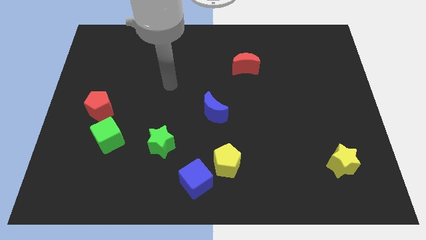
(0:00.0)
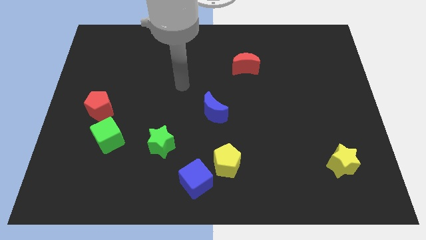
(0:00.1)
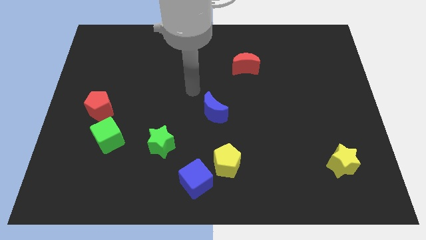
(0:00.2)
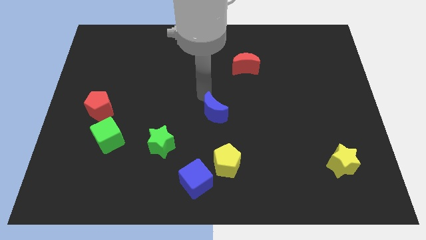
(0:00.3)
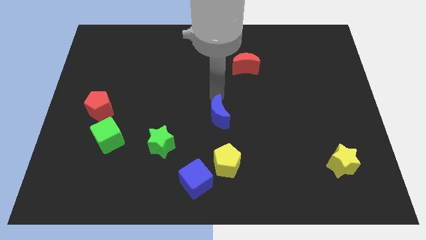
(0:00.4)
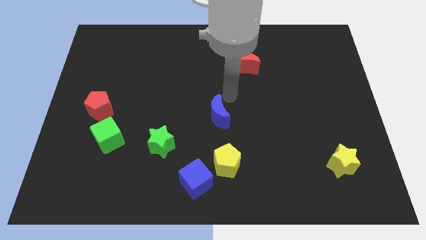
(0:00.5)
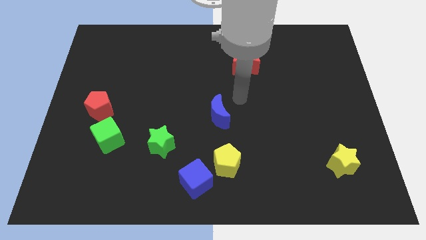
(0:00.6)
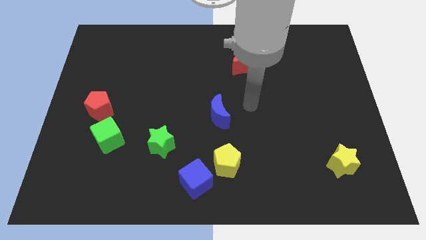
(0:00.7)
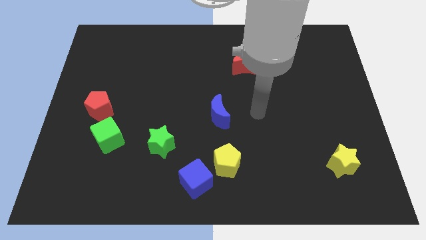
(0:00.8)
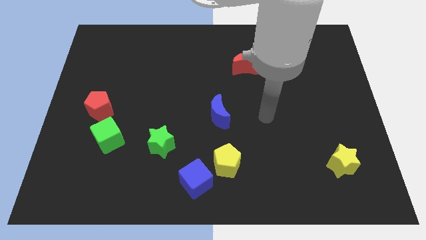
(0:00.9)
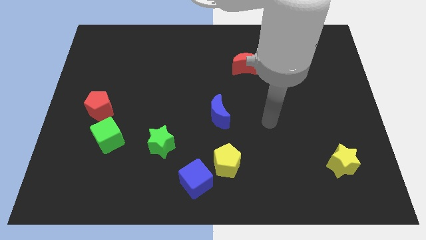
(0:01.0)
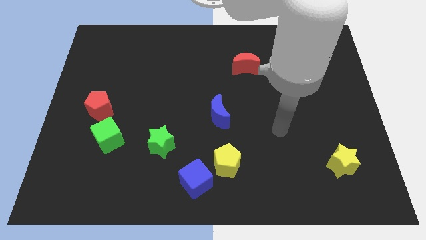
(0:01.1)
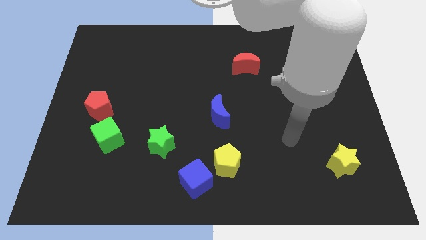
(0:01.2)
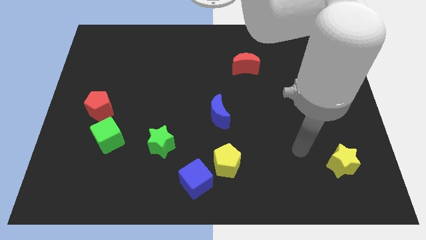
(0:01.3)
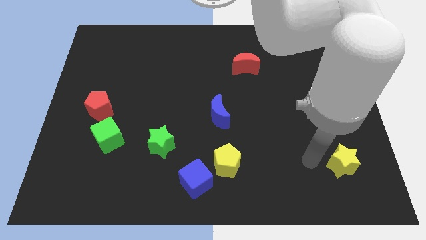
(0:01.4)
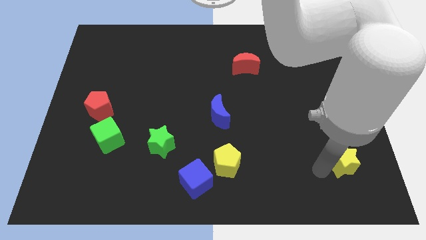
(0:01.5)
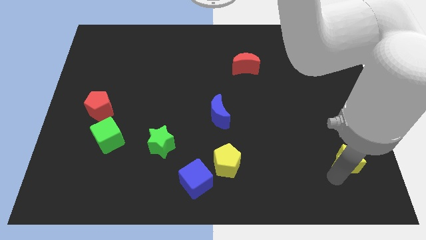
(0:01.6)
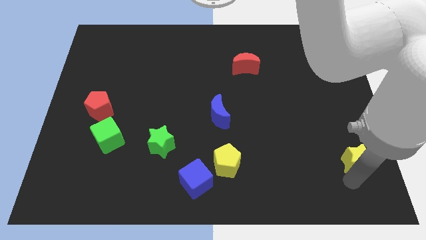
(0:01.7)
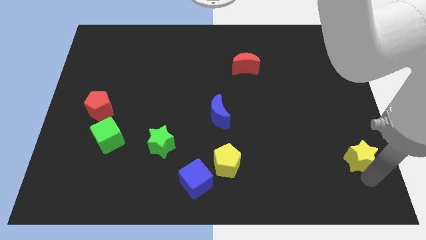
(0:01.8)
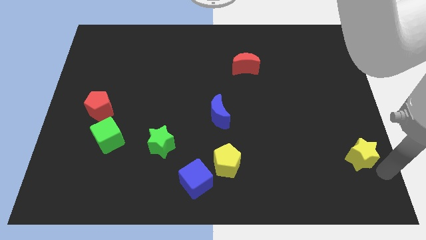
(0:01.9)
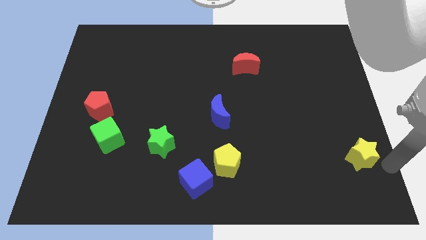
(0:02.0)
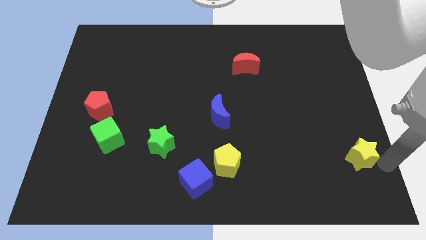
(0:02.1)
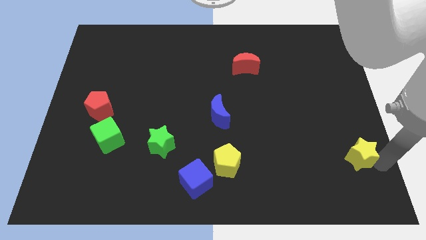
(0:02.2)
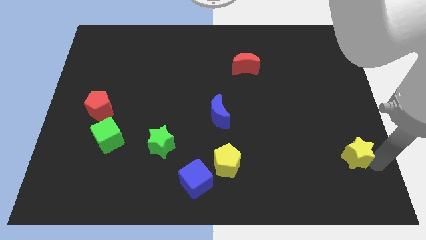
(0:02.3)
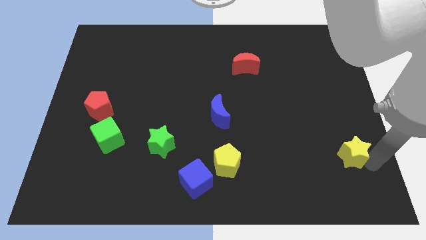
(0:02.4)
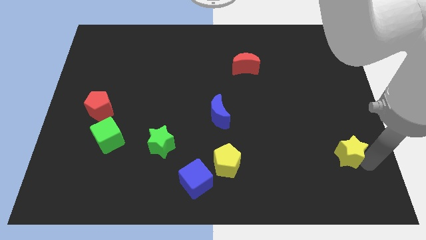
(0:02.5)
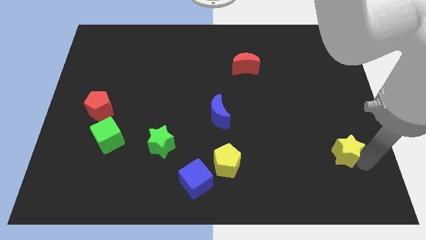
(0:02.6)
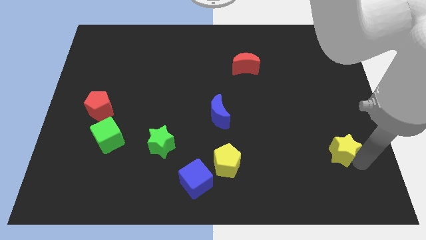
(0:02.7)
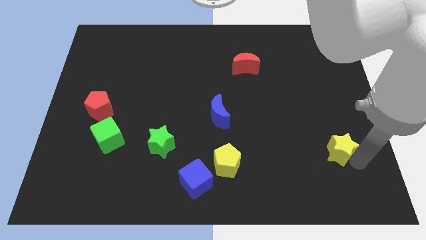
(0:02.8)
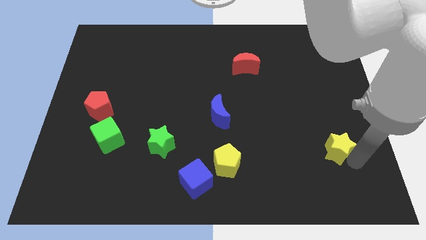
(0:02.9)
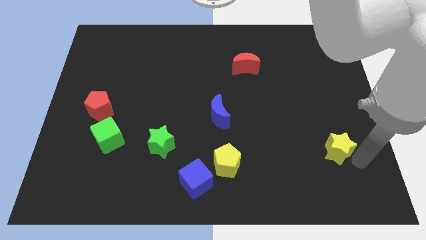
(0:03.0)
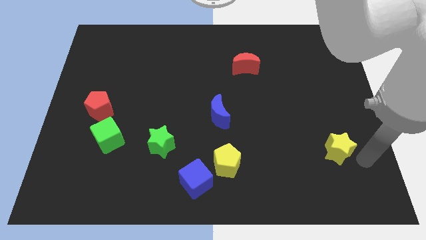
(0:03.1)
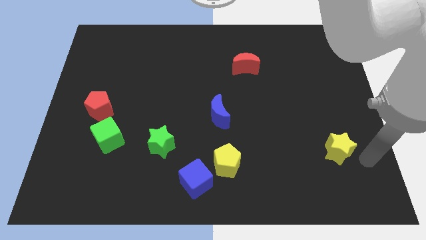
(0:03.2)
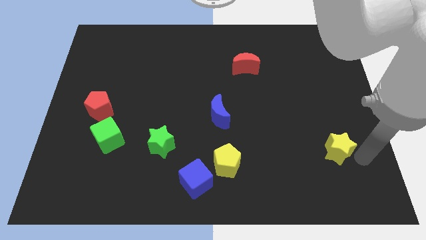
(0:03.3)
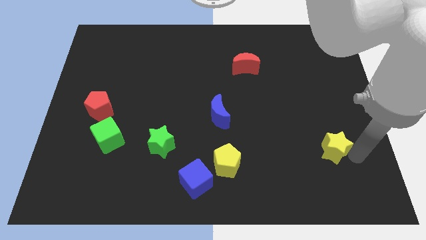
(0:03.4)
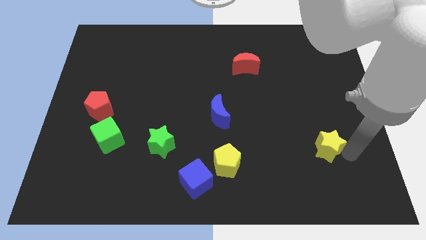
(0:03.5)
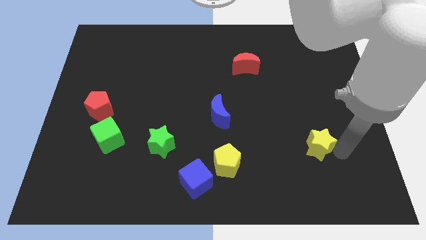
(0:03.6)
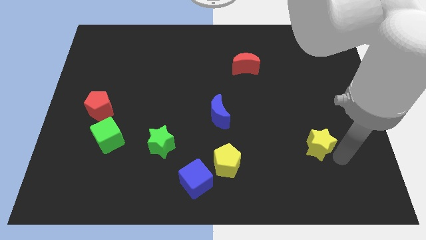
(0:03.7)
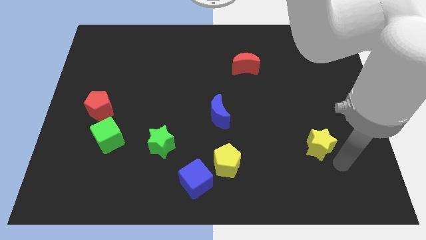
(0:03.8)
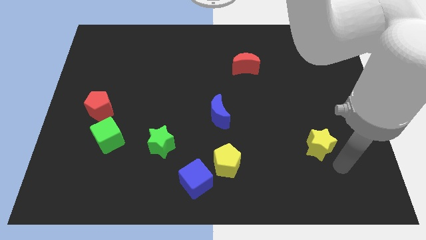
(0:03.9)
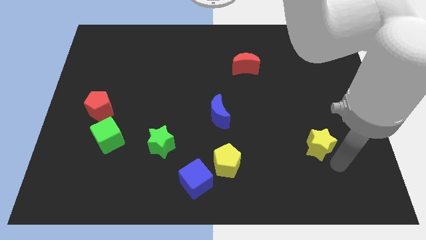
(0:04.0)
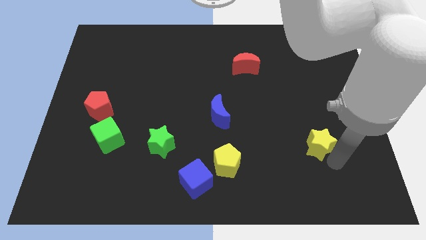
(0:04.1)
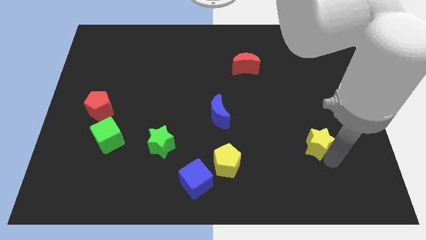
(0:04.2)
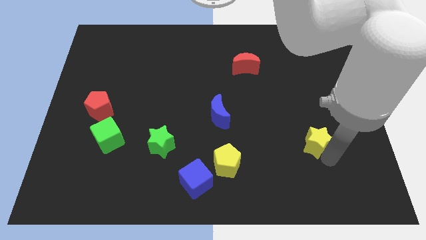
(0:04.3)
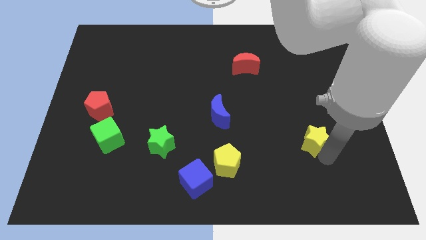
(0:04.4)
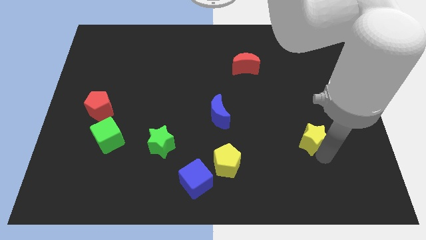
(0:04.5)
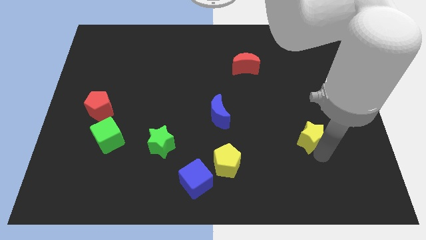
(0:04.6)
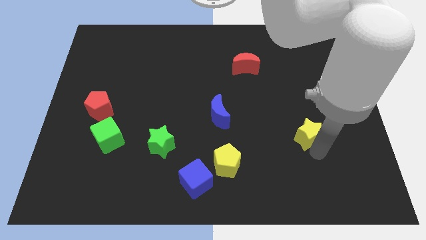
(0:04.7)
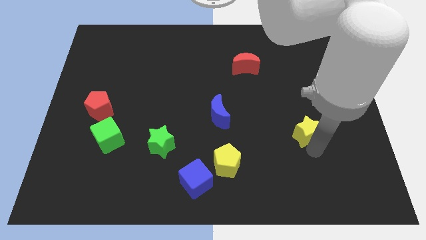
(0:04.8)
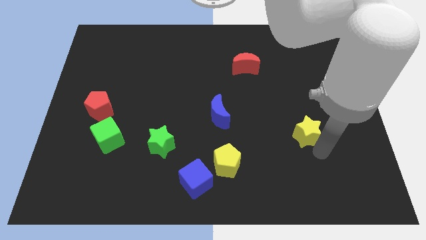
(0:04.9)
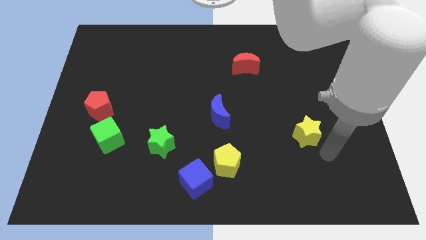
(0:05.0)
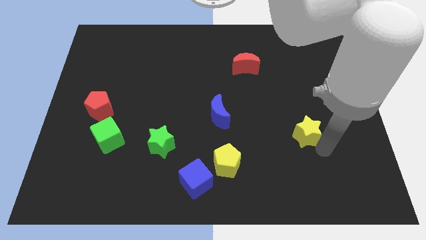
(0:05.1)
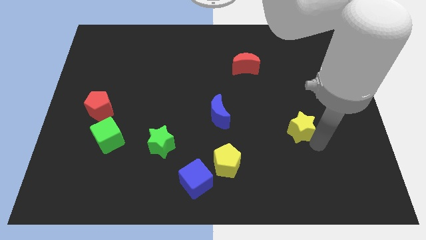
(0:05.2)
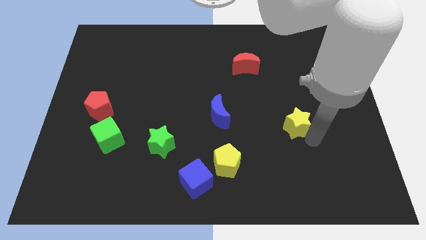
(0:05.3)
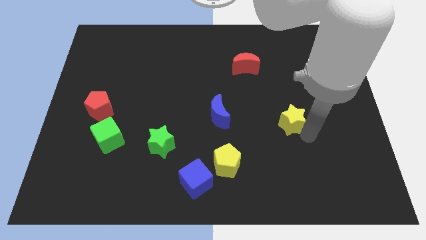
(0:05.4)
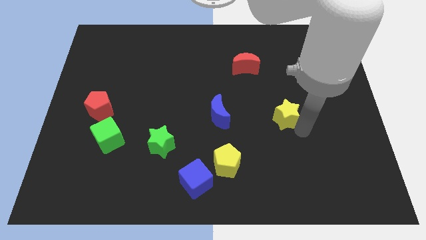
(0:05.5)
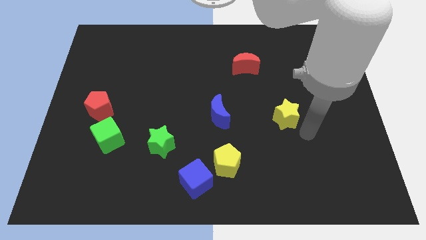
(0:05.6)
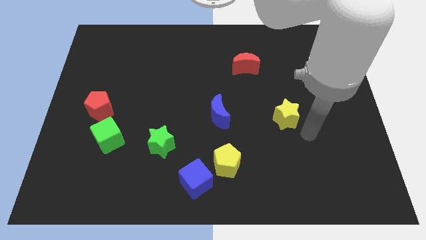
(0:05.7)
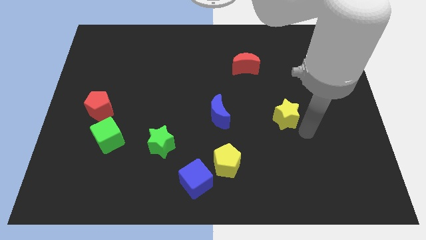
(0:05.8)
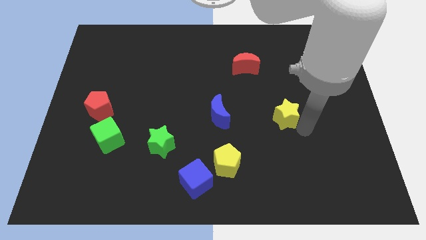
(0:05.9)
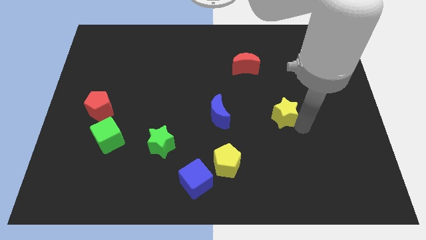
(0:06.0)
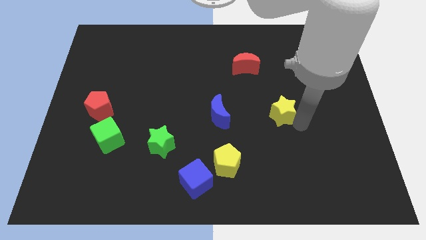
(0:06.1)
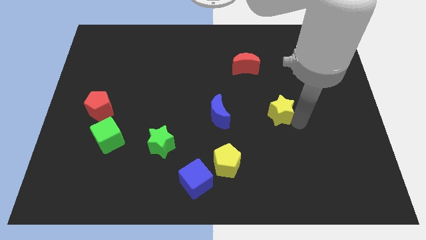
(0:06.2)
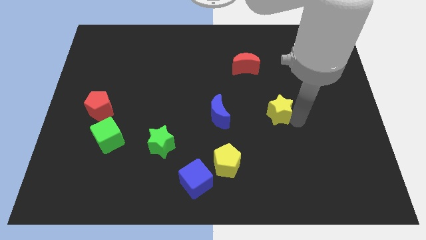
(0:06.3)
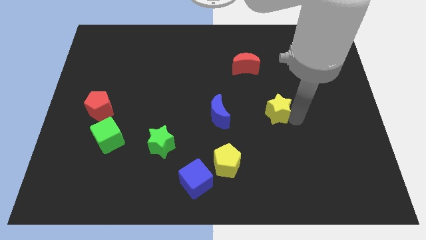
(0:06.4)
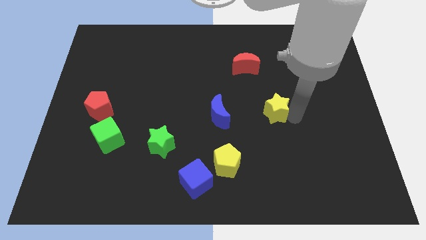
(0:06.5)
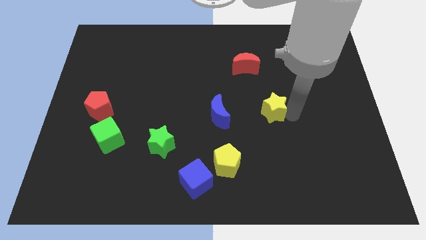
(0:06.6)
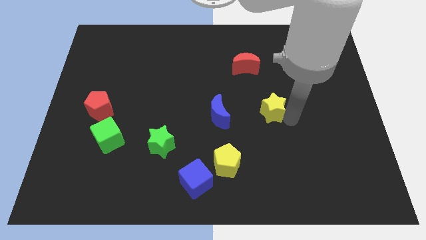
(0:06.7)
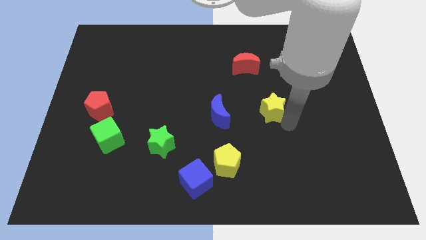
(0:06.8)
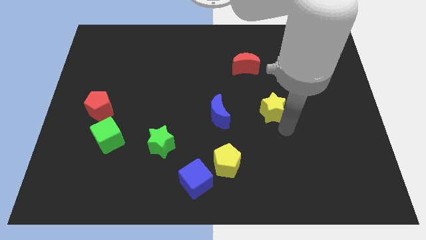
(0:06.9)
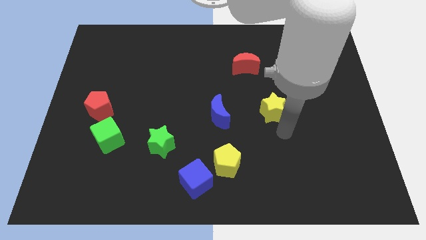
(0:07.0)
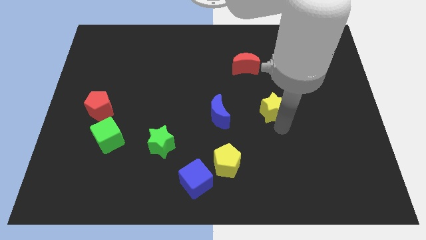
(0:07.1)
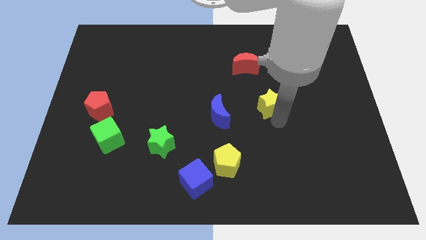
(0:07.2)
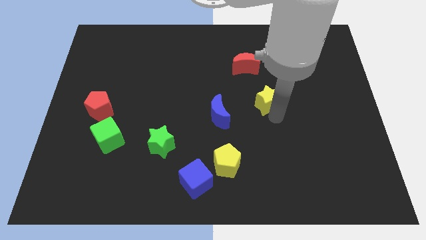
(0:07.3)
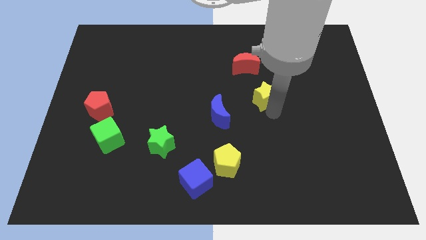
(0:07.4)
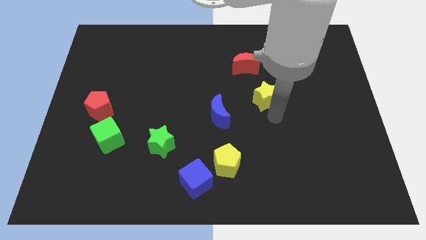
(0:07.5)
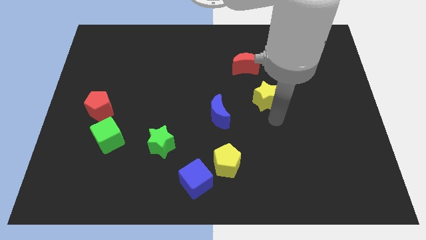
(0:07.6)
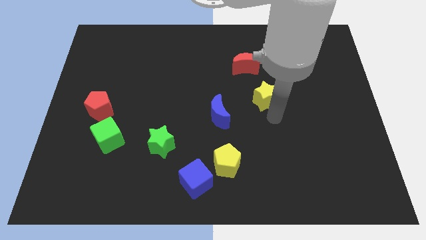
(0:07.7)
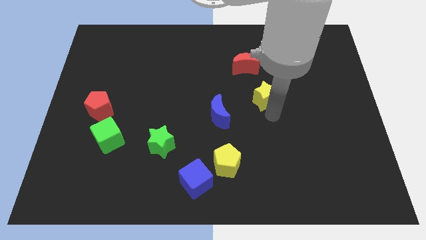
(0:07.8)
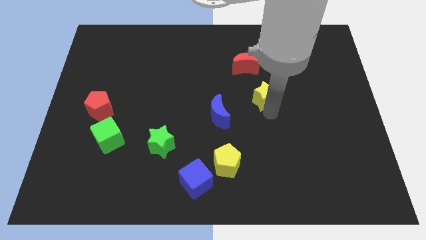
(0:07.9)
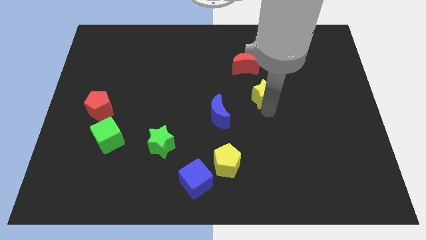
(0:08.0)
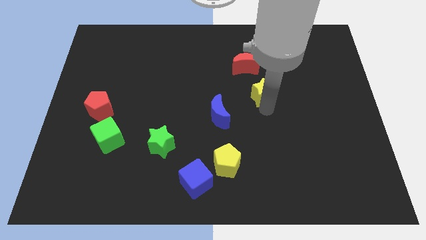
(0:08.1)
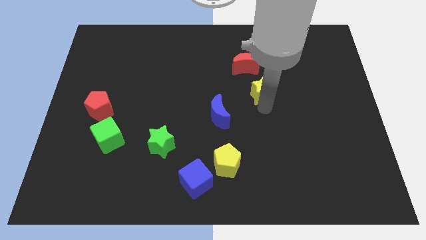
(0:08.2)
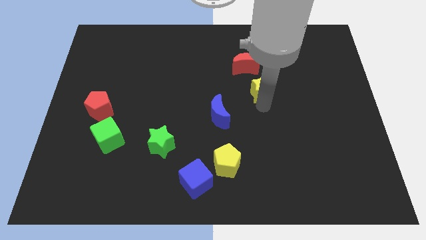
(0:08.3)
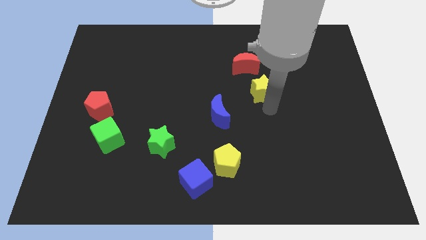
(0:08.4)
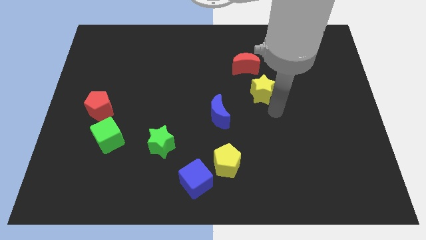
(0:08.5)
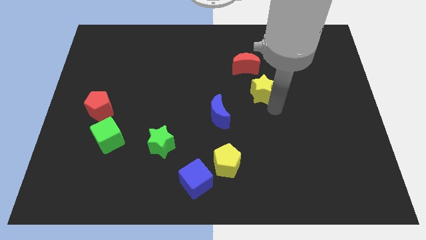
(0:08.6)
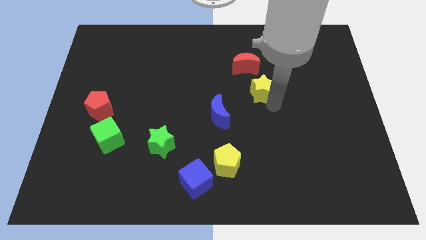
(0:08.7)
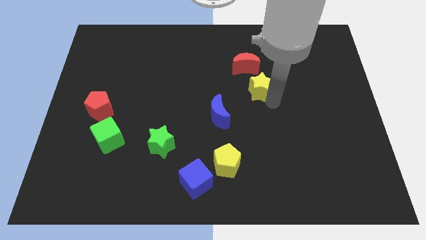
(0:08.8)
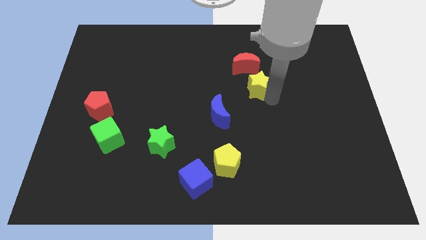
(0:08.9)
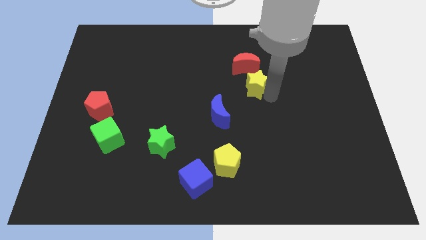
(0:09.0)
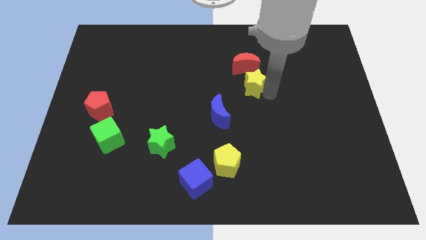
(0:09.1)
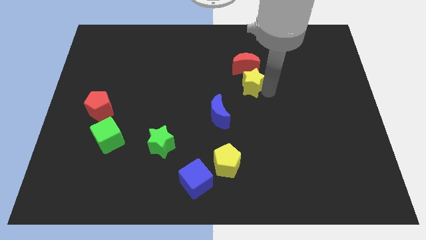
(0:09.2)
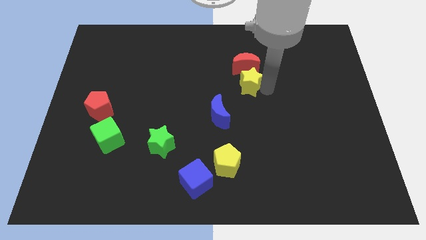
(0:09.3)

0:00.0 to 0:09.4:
move the yellow star next to the red moon
